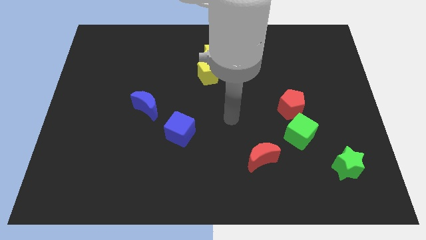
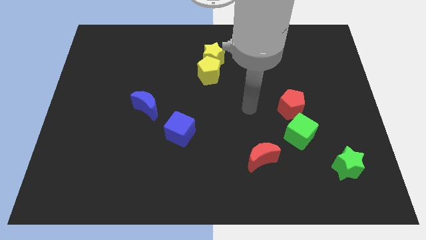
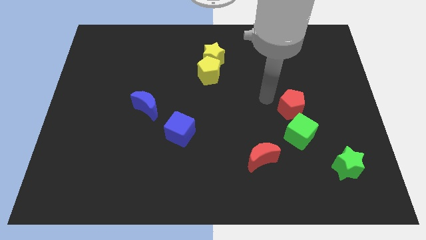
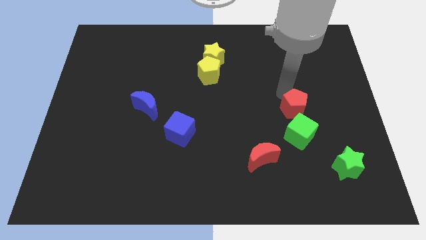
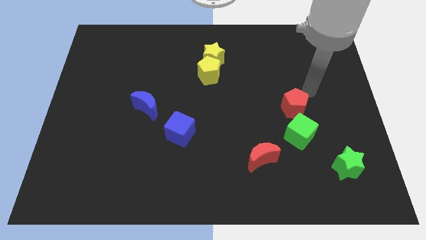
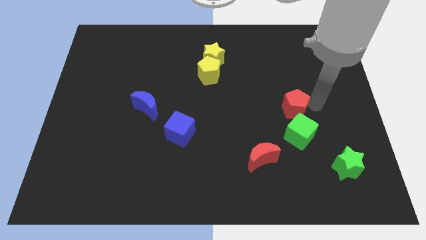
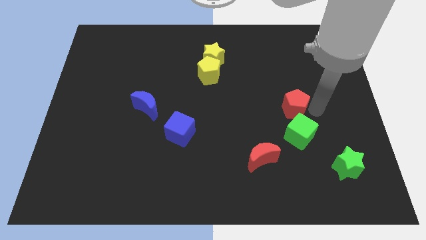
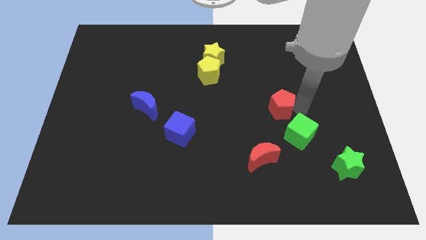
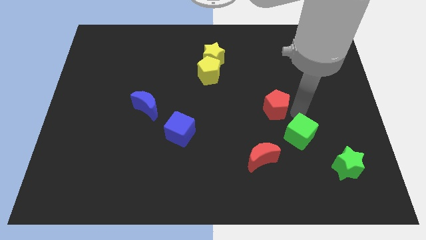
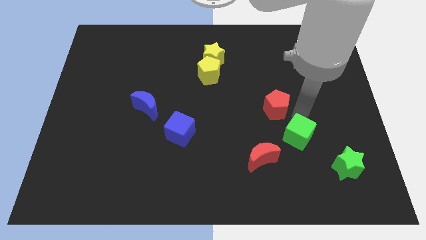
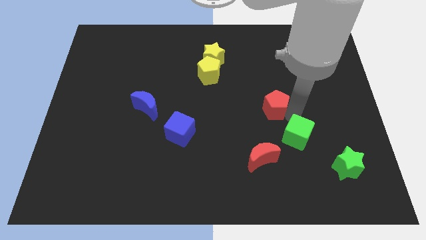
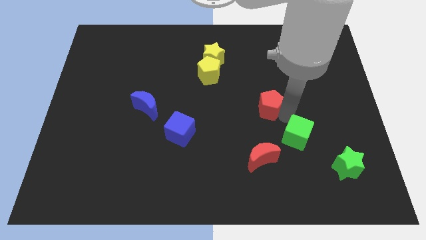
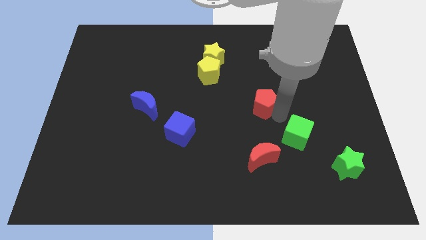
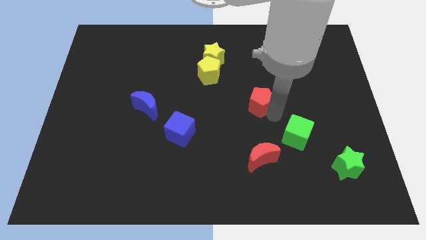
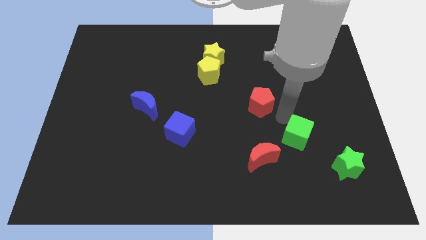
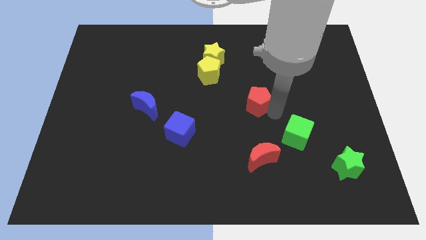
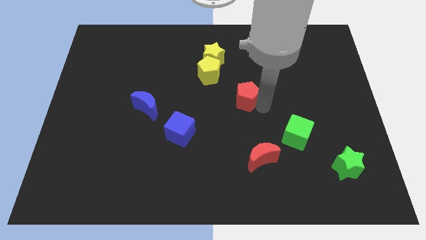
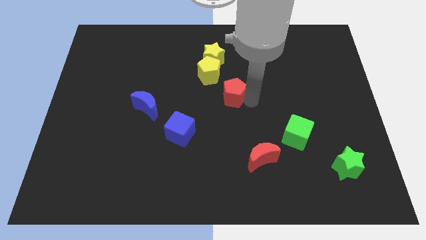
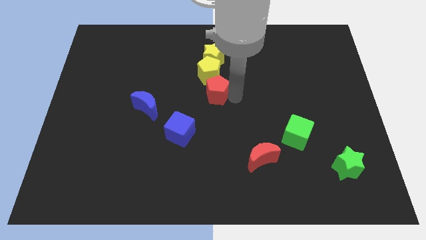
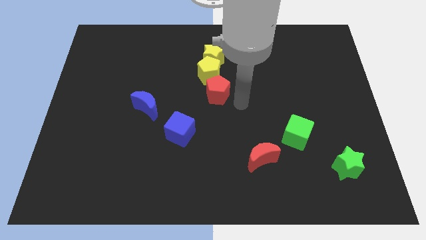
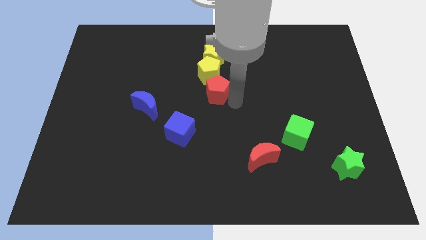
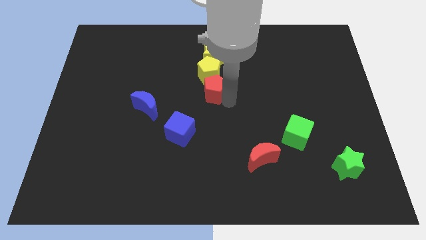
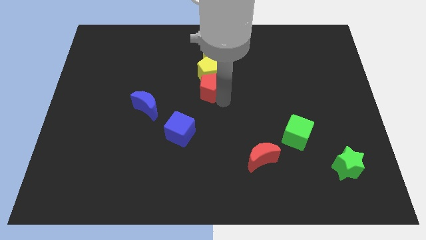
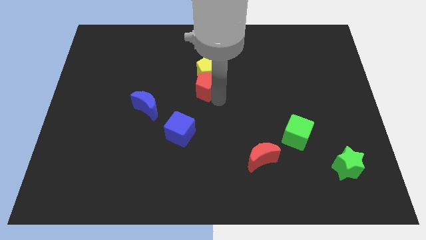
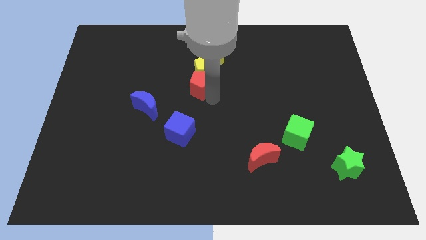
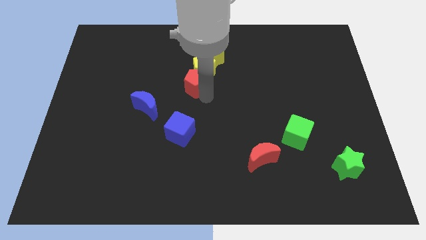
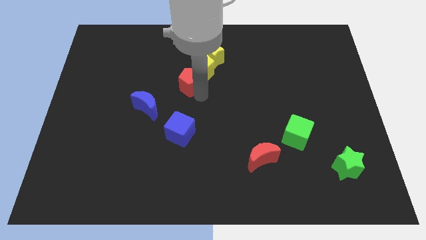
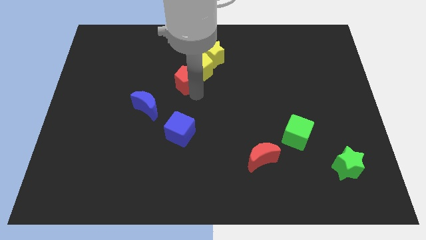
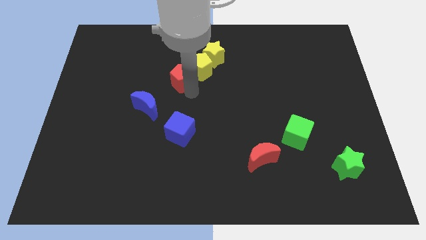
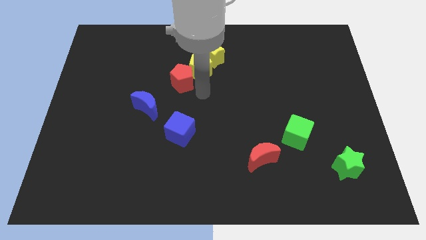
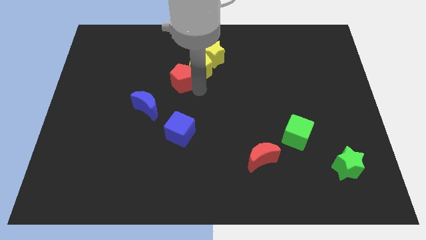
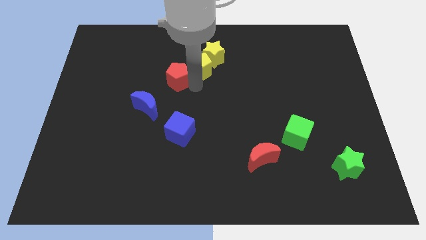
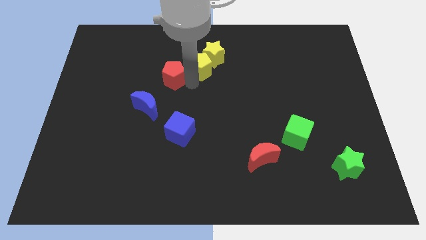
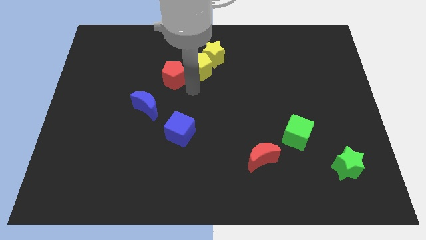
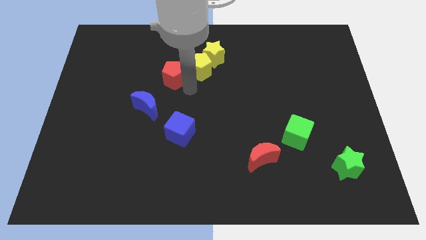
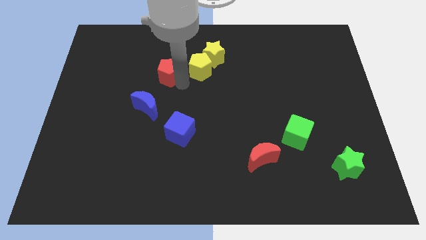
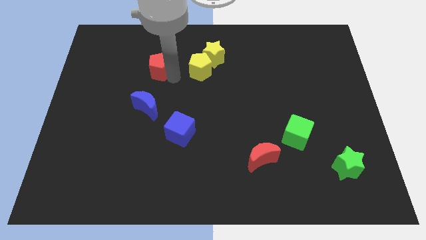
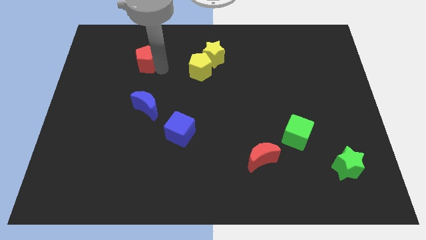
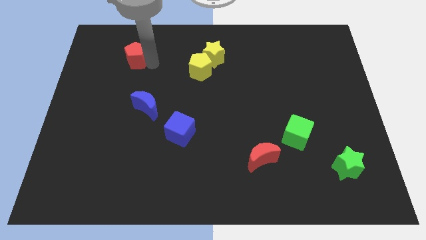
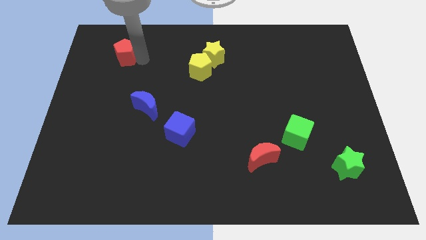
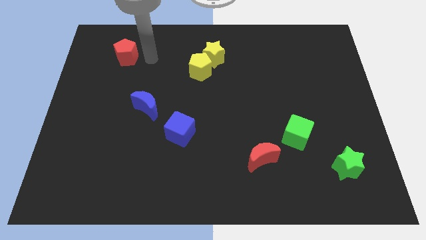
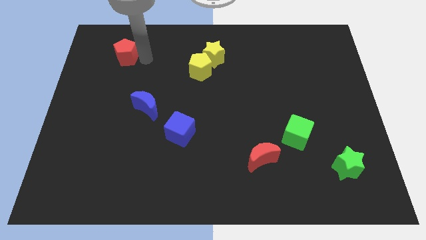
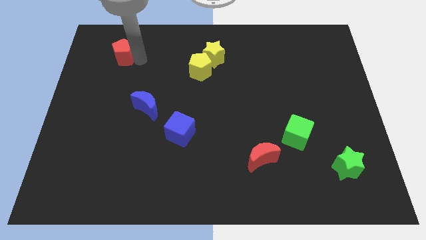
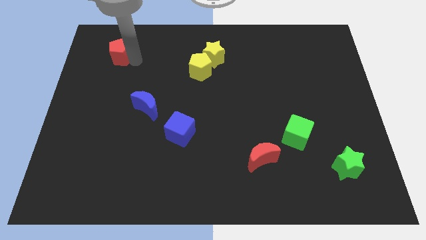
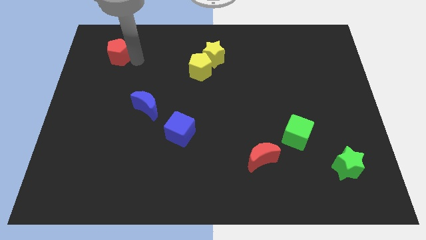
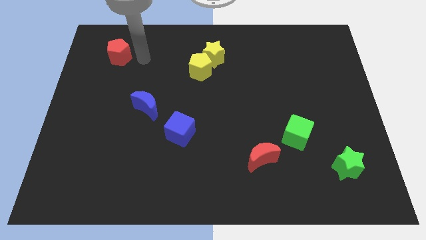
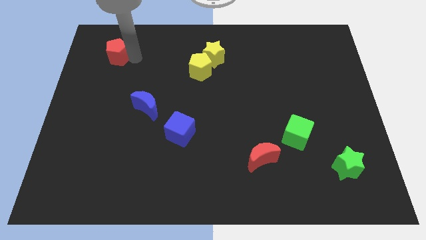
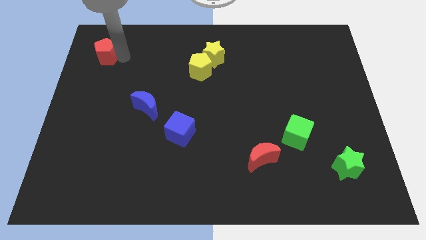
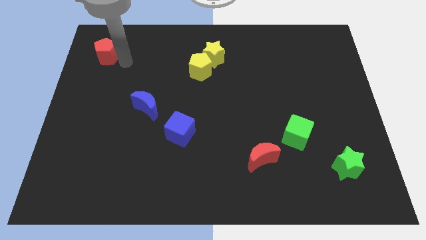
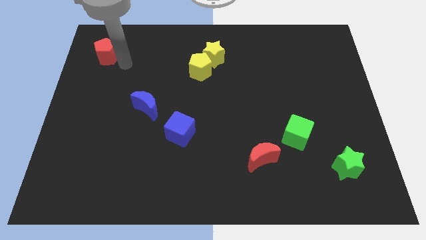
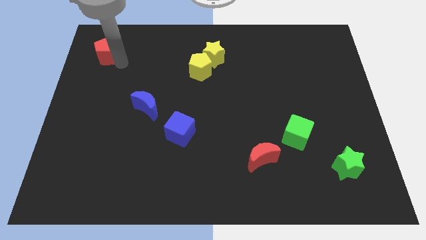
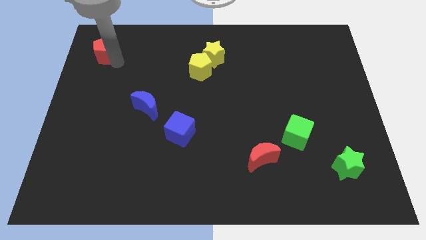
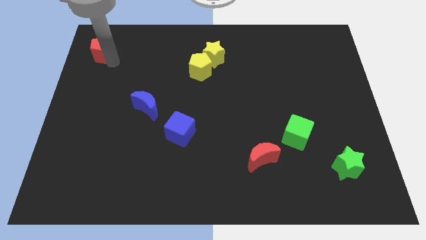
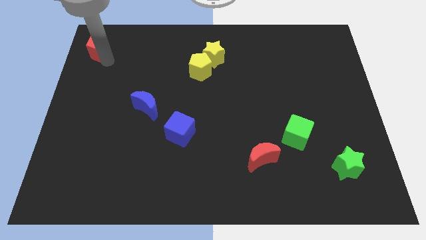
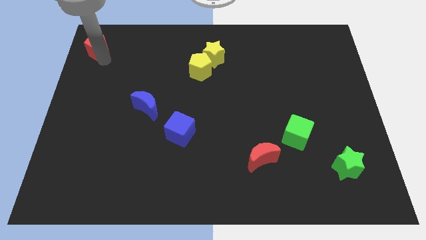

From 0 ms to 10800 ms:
push the red pentagon to the top left corner

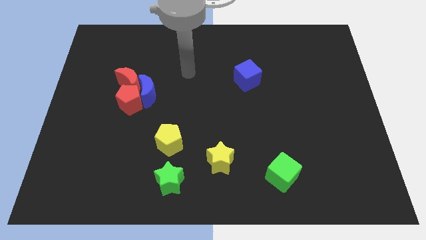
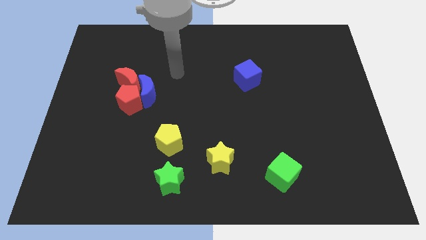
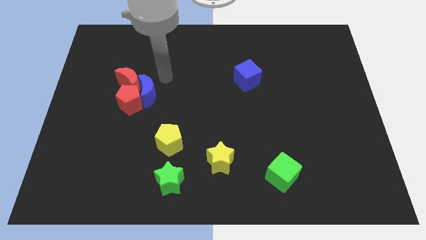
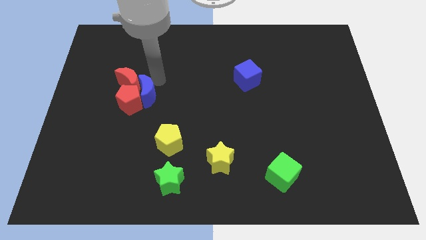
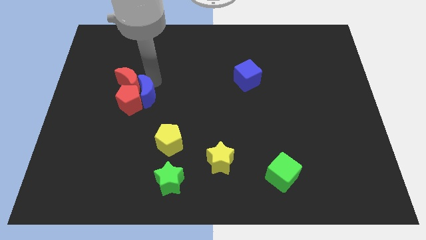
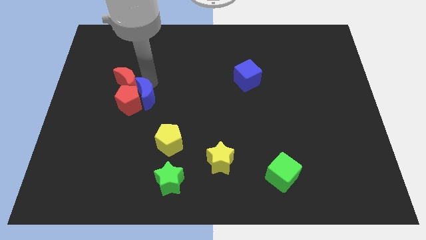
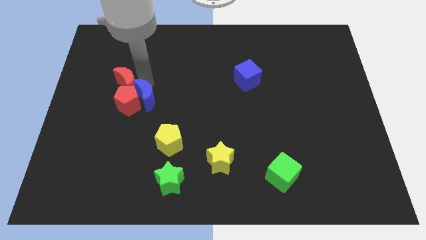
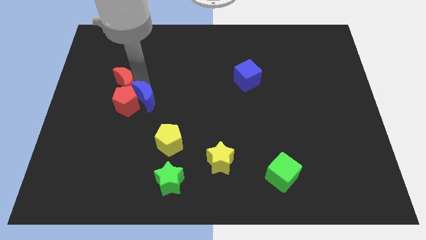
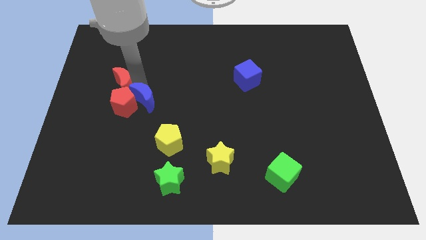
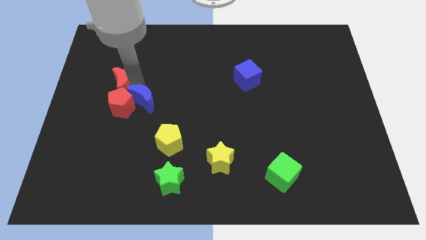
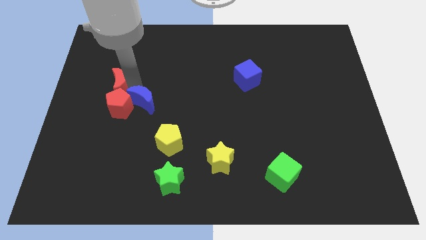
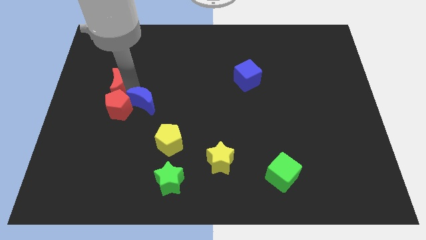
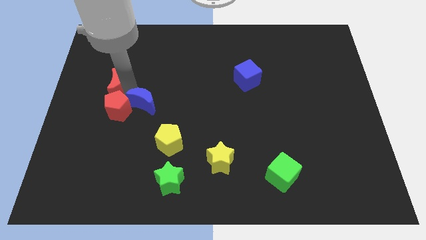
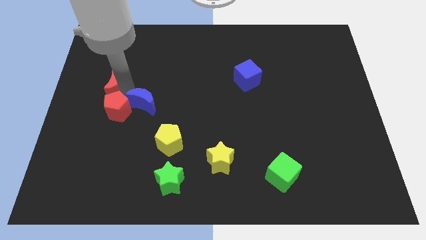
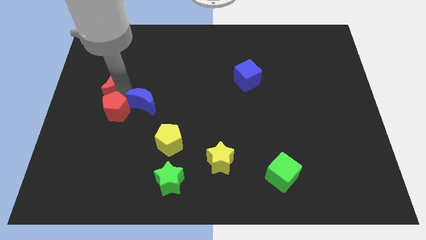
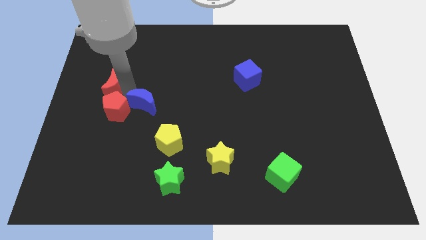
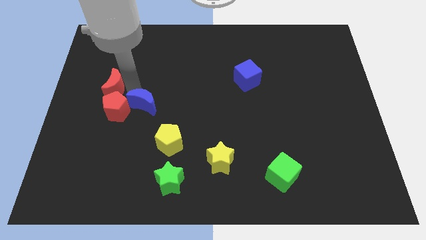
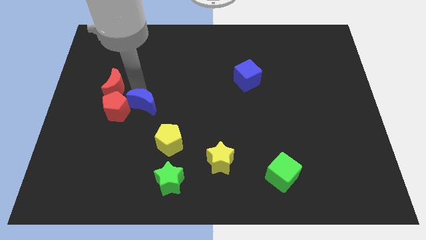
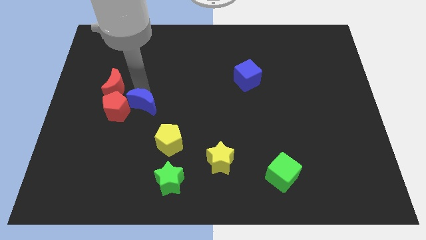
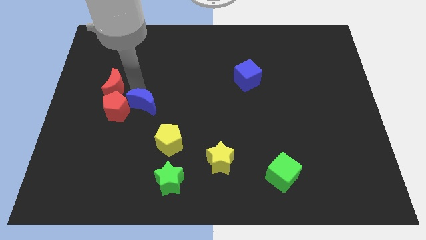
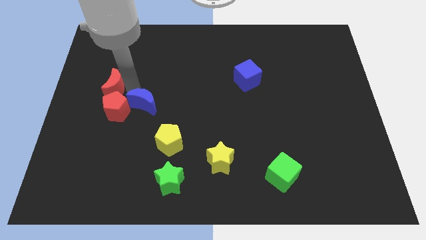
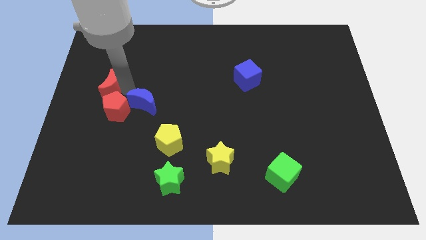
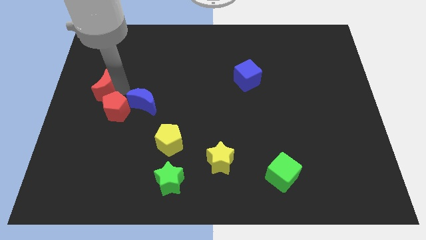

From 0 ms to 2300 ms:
move the red moon to the center left
